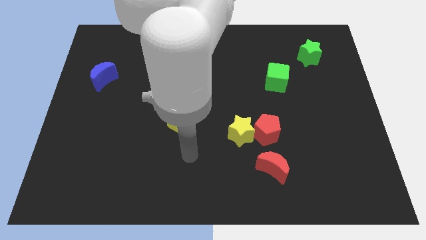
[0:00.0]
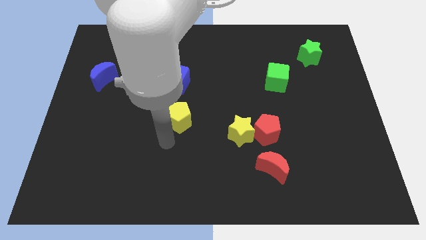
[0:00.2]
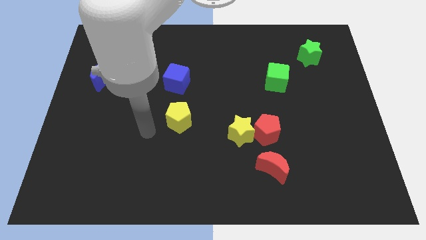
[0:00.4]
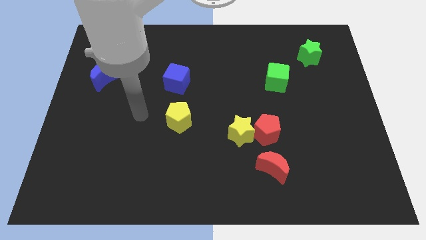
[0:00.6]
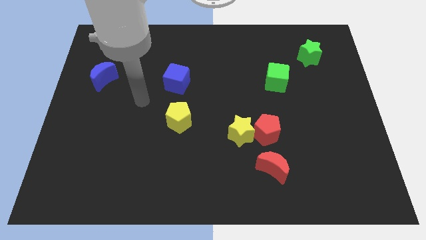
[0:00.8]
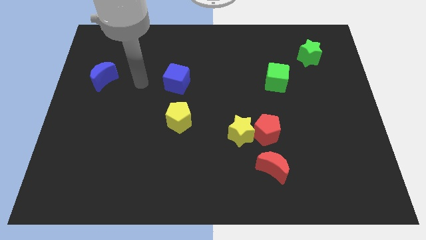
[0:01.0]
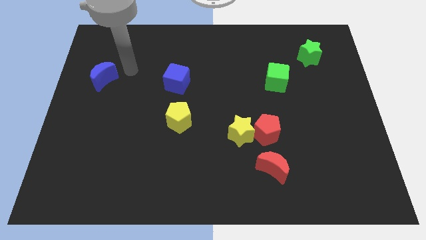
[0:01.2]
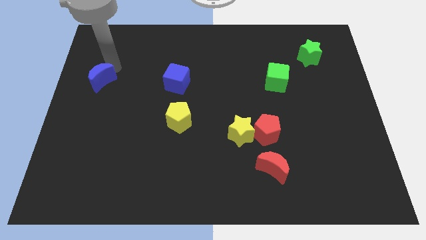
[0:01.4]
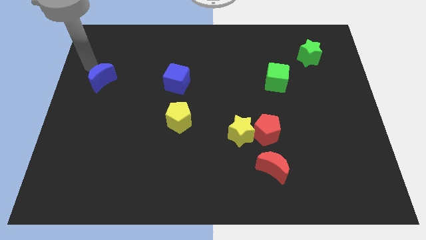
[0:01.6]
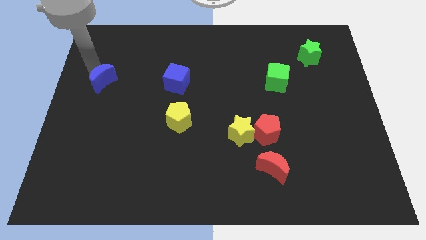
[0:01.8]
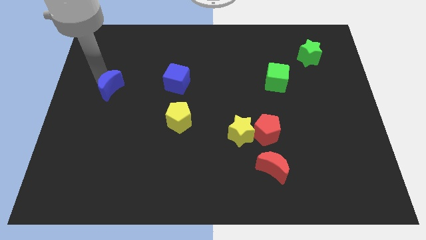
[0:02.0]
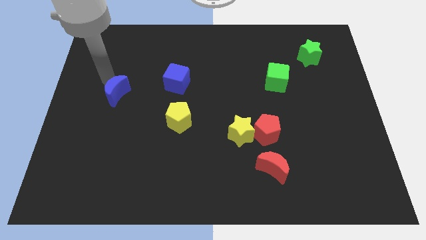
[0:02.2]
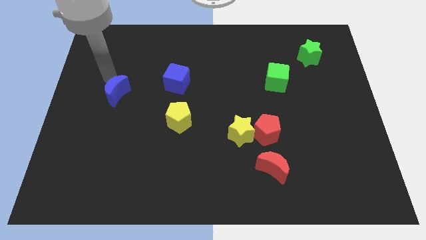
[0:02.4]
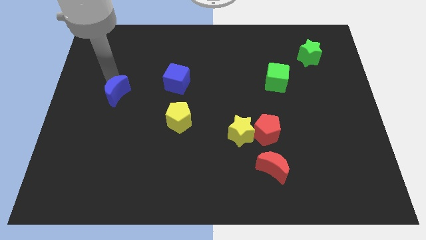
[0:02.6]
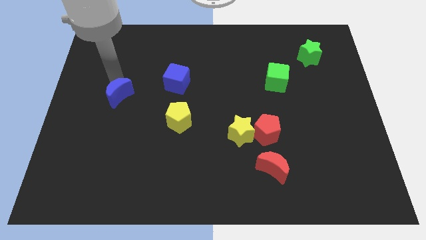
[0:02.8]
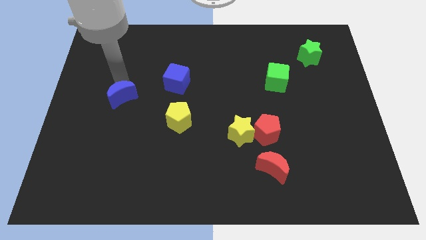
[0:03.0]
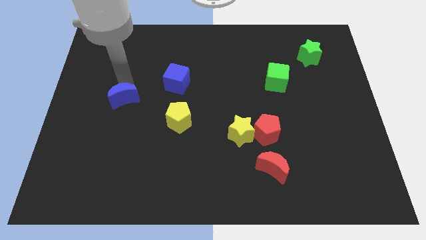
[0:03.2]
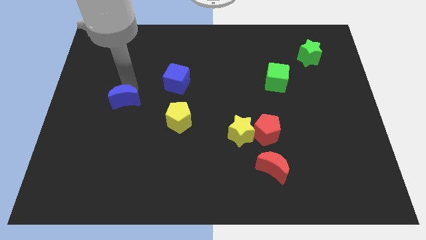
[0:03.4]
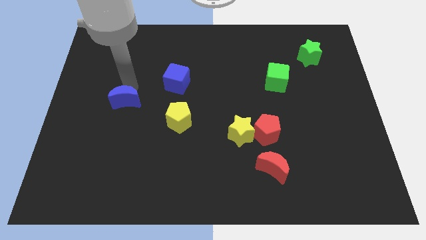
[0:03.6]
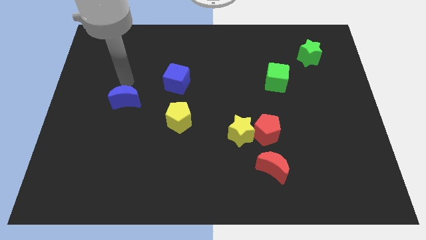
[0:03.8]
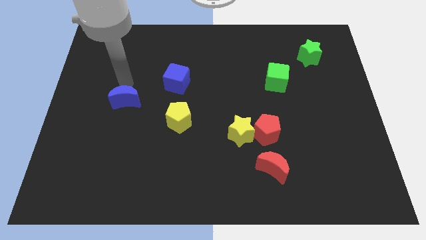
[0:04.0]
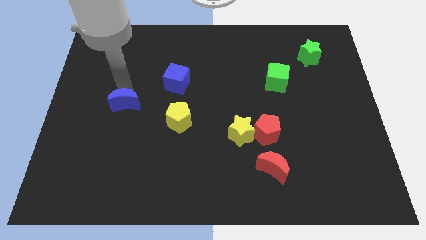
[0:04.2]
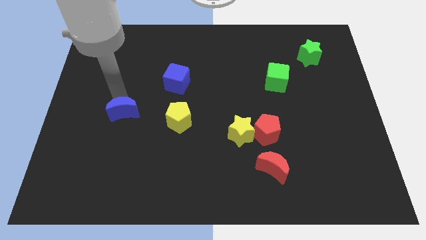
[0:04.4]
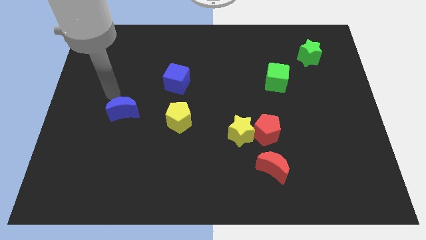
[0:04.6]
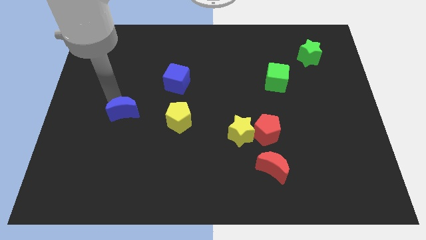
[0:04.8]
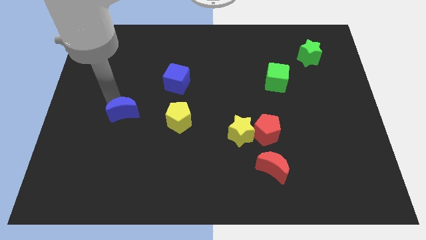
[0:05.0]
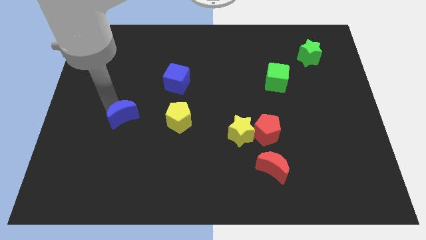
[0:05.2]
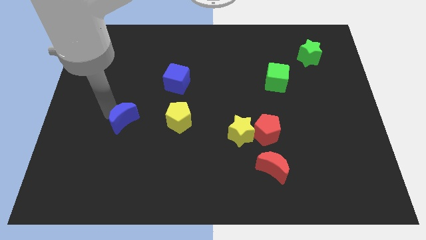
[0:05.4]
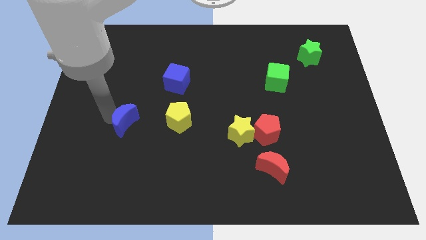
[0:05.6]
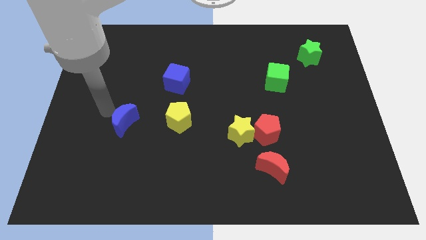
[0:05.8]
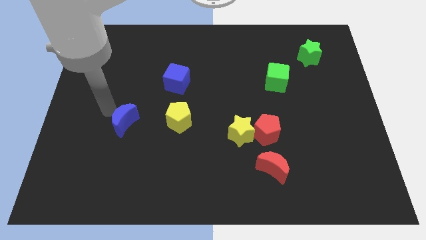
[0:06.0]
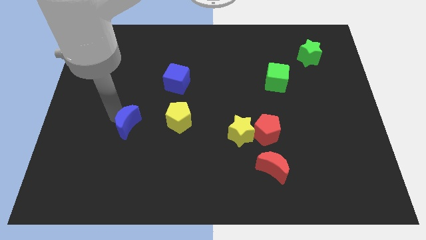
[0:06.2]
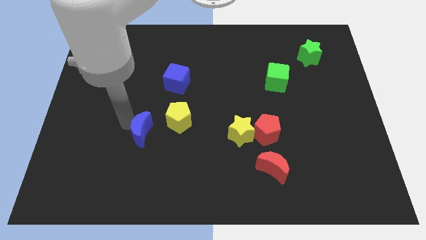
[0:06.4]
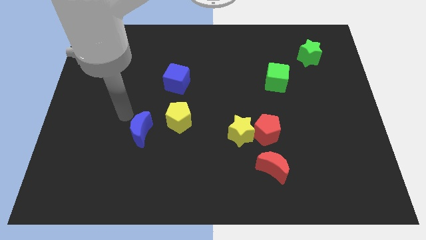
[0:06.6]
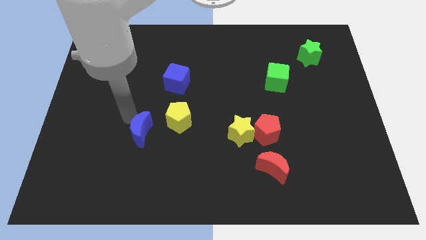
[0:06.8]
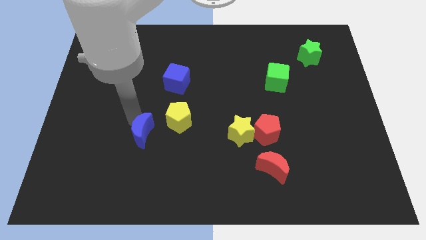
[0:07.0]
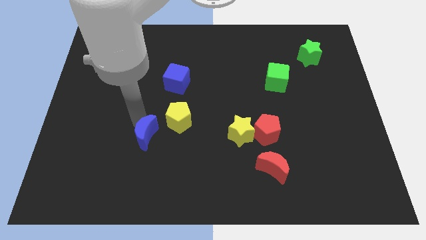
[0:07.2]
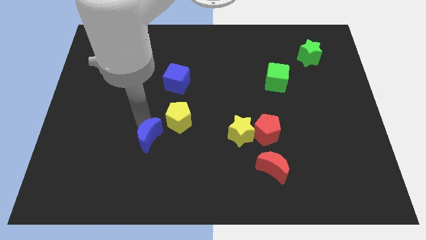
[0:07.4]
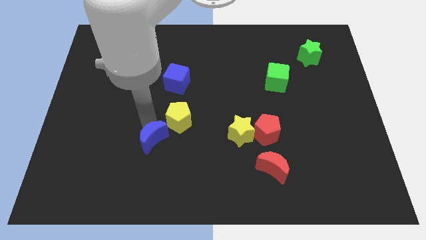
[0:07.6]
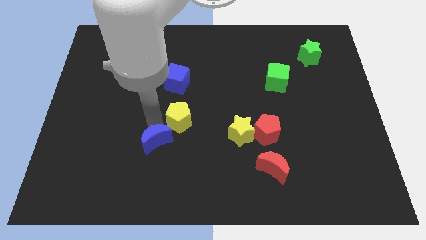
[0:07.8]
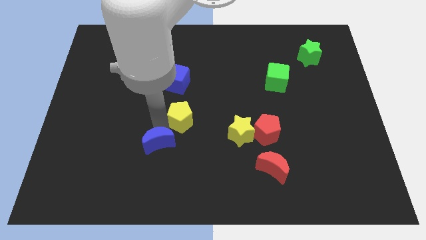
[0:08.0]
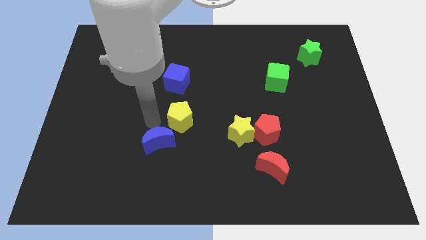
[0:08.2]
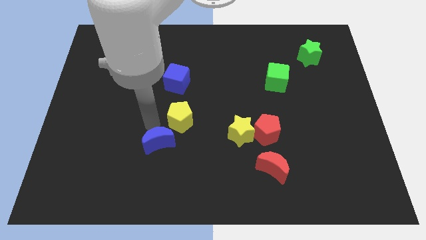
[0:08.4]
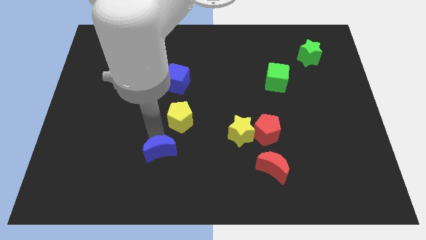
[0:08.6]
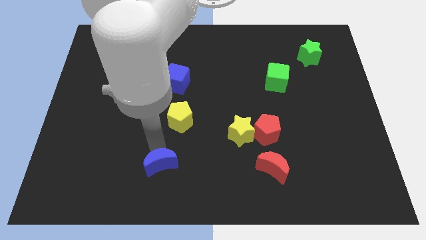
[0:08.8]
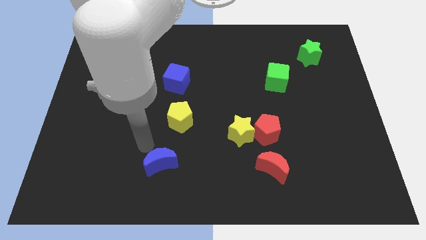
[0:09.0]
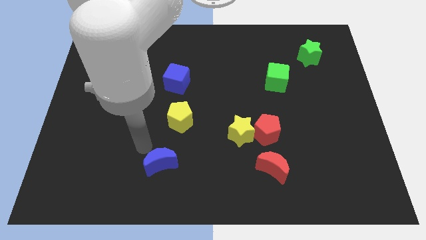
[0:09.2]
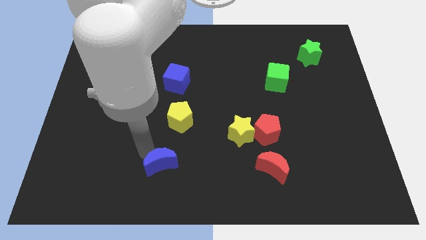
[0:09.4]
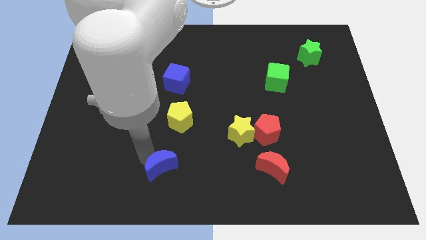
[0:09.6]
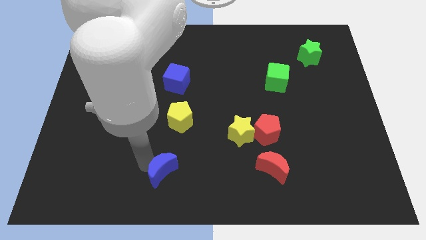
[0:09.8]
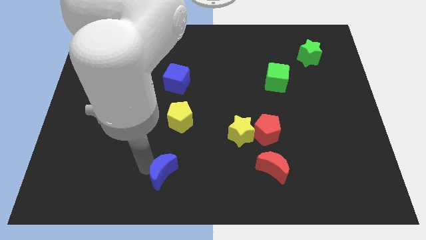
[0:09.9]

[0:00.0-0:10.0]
put the blue moon to the bottom

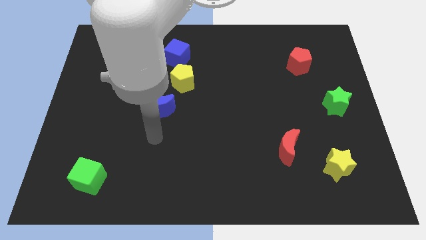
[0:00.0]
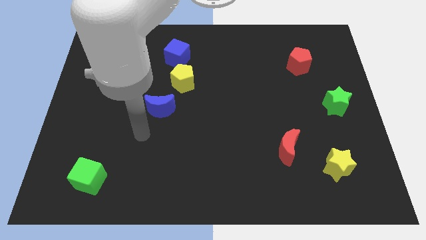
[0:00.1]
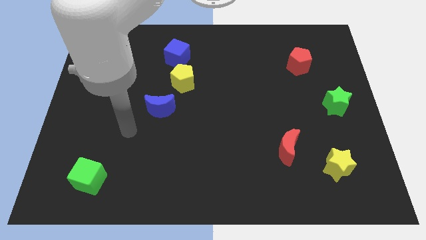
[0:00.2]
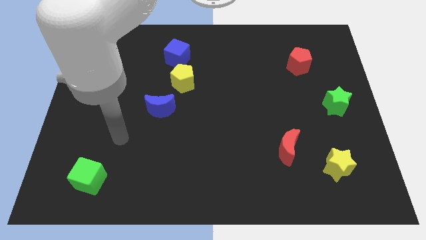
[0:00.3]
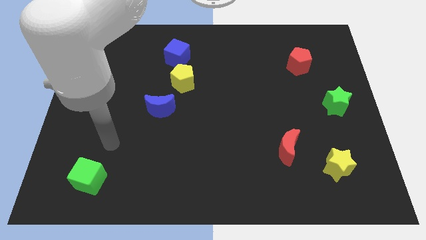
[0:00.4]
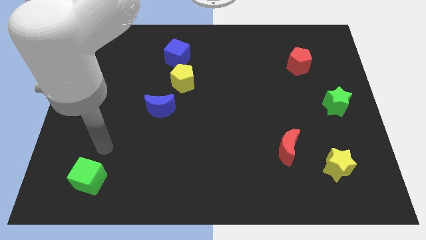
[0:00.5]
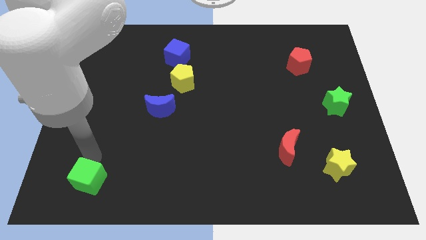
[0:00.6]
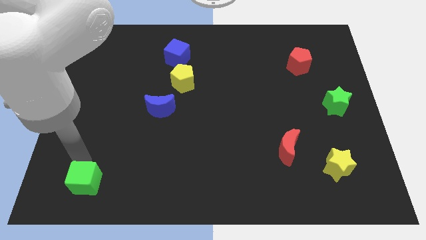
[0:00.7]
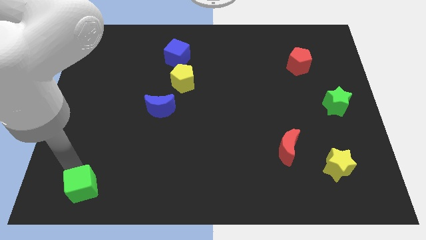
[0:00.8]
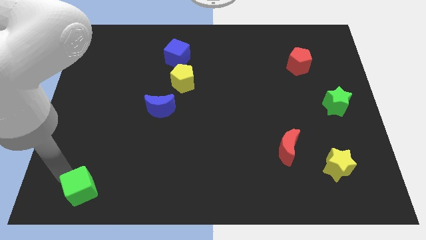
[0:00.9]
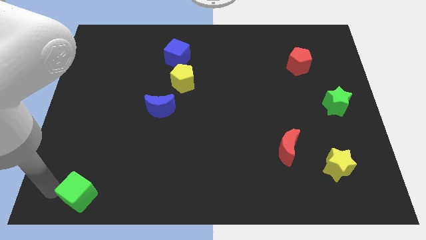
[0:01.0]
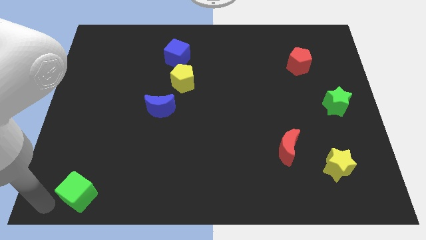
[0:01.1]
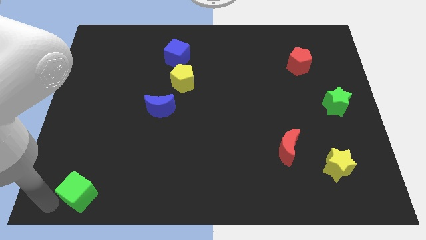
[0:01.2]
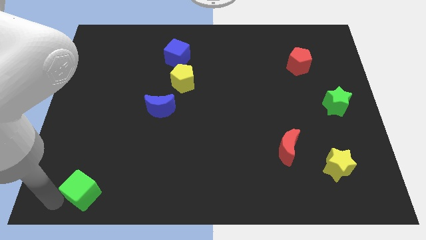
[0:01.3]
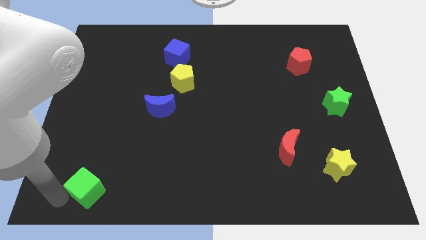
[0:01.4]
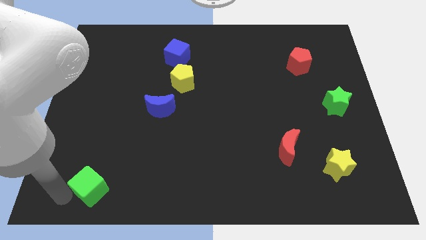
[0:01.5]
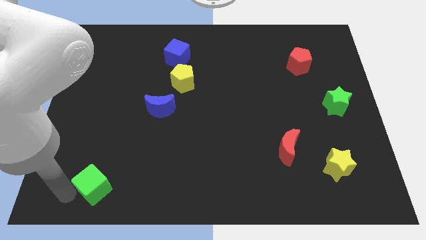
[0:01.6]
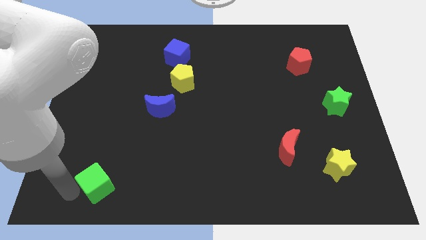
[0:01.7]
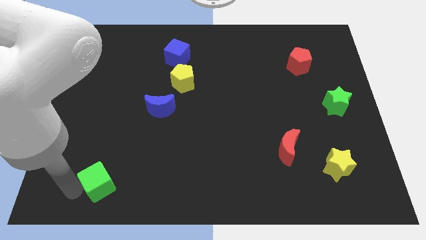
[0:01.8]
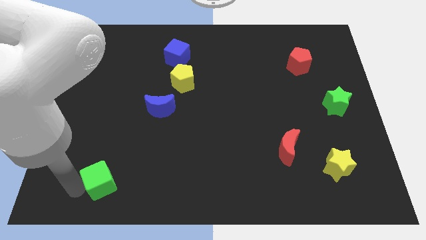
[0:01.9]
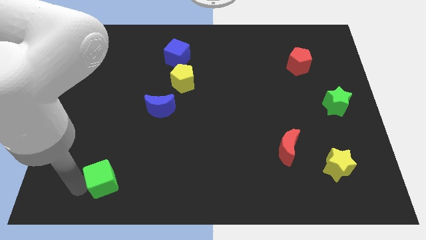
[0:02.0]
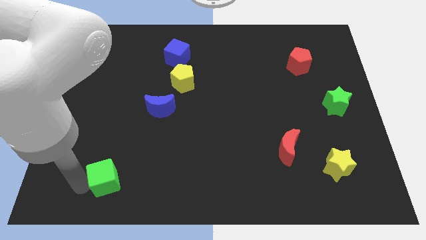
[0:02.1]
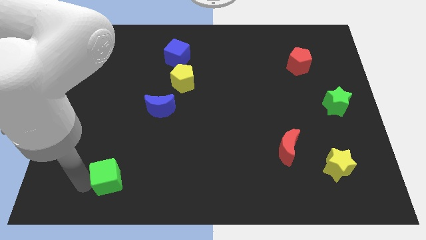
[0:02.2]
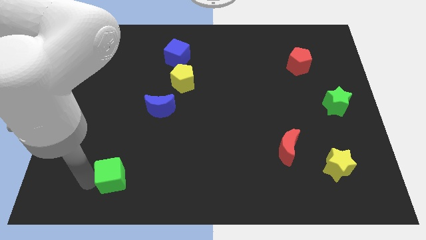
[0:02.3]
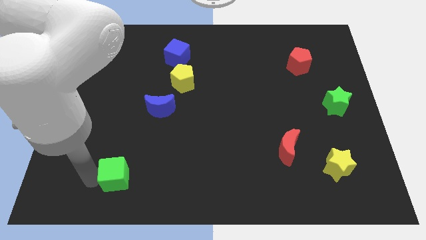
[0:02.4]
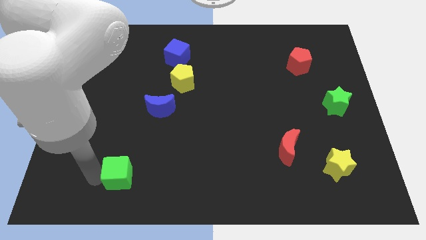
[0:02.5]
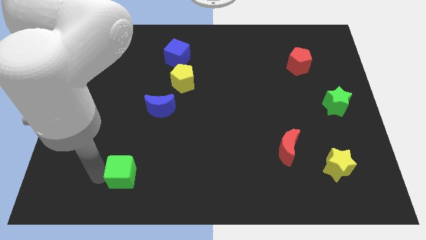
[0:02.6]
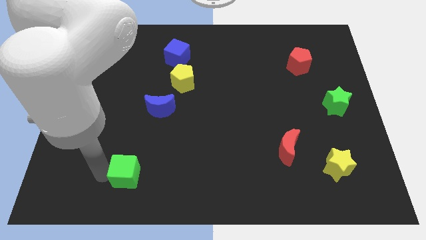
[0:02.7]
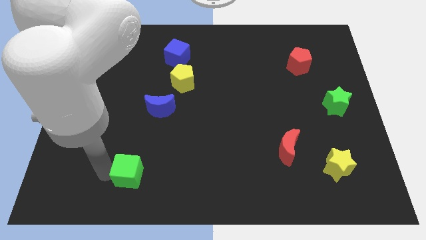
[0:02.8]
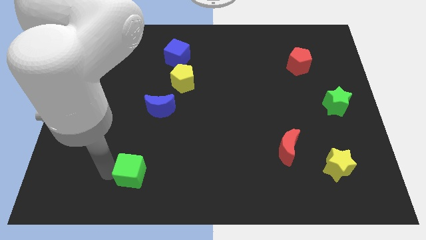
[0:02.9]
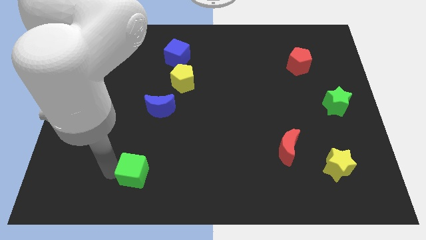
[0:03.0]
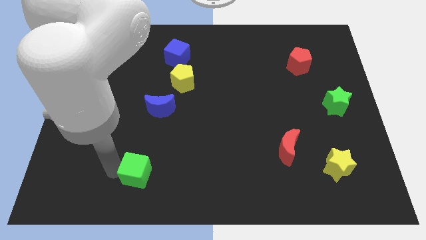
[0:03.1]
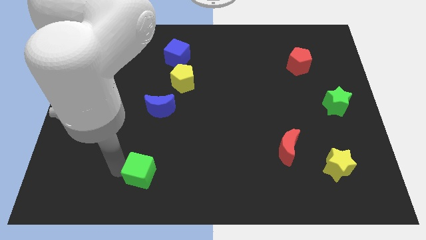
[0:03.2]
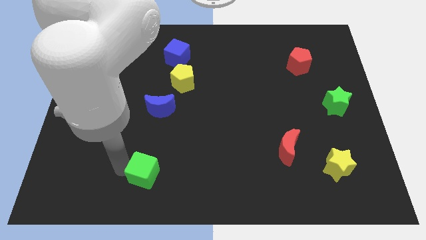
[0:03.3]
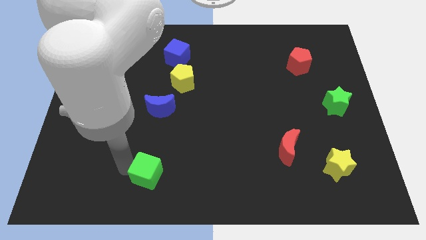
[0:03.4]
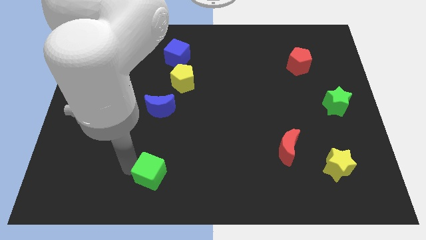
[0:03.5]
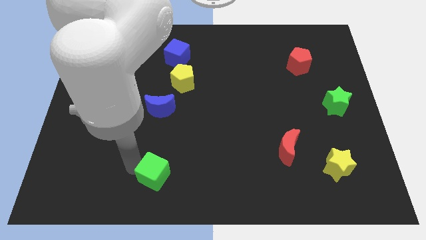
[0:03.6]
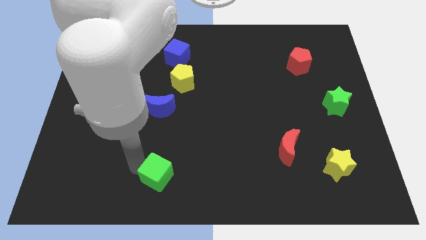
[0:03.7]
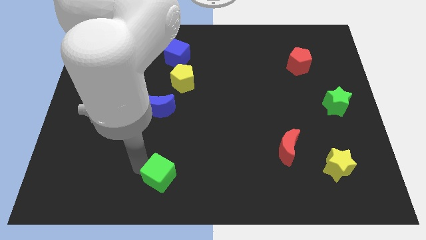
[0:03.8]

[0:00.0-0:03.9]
slide the green cube to the bottom
